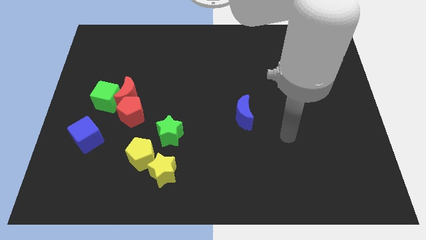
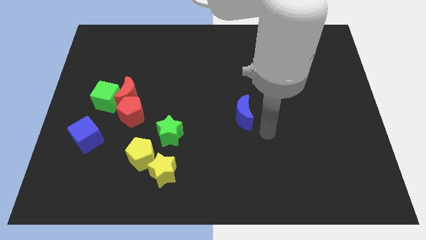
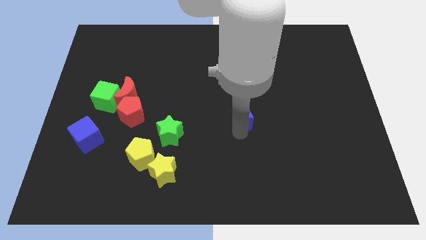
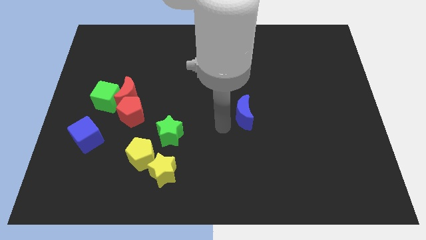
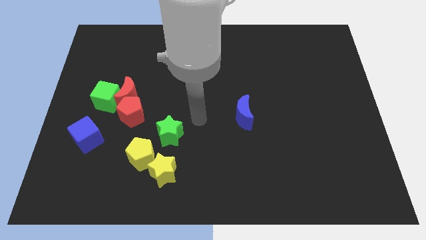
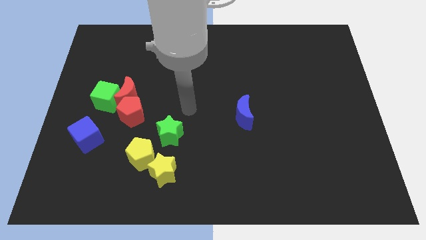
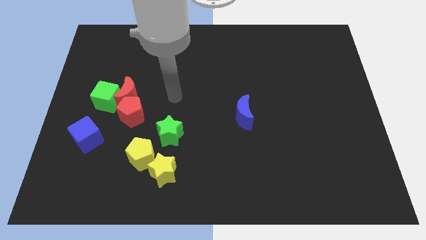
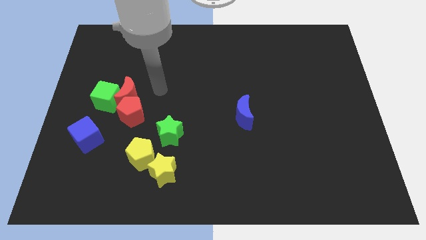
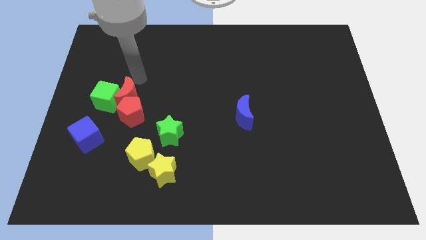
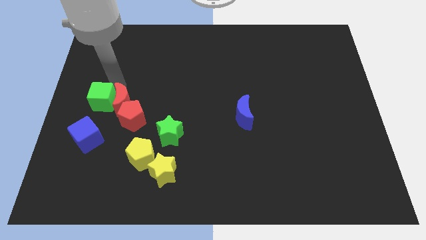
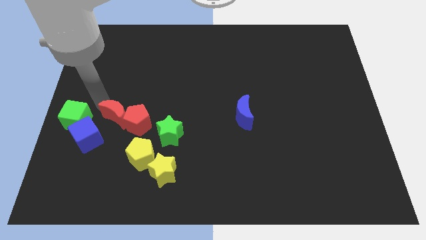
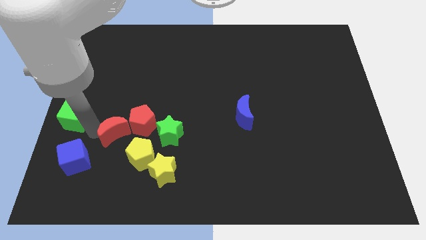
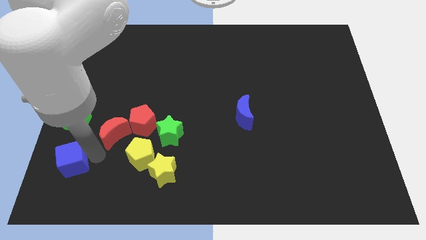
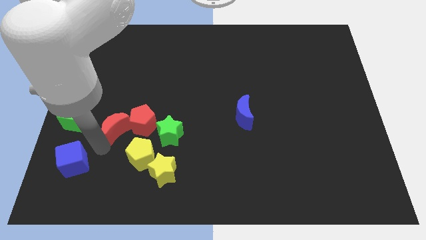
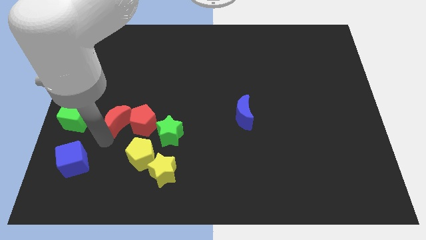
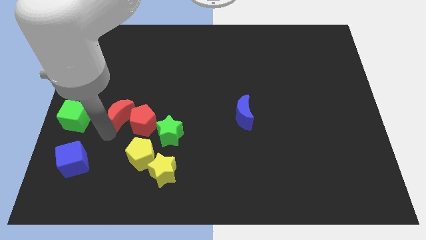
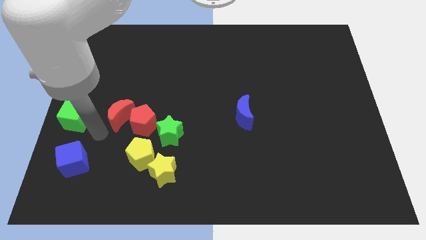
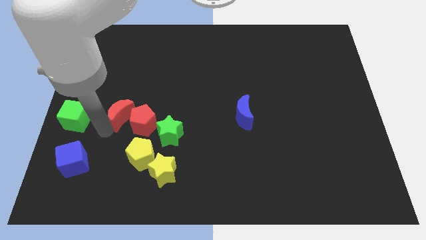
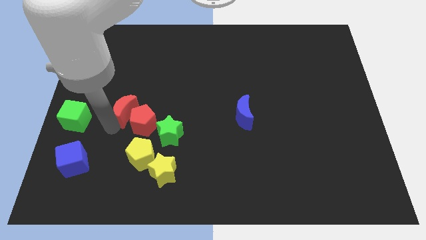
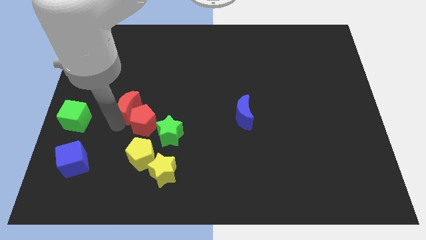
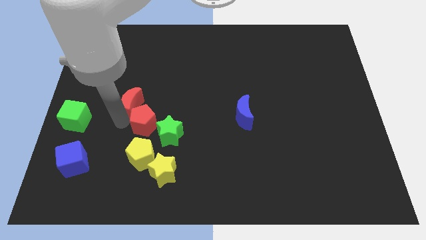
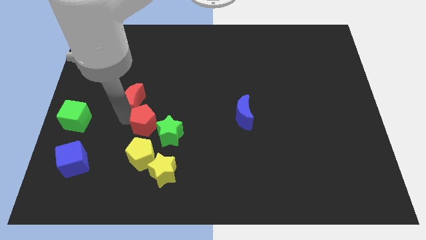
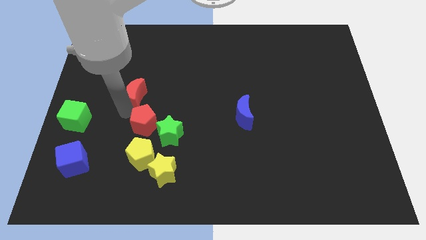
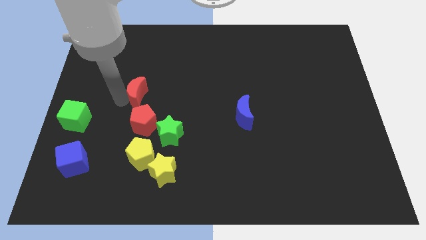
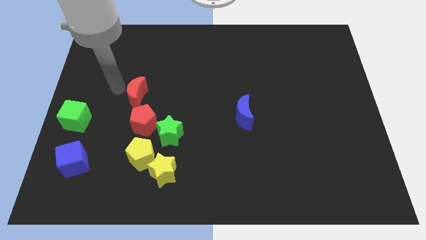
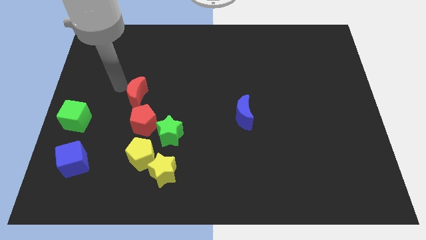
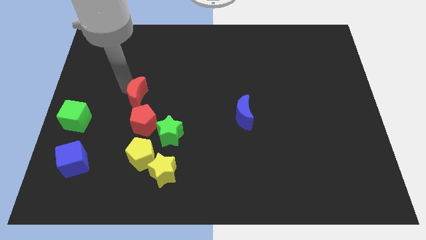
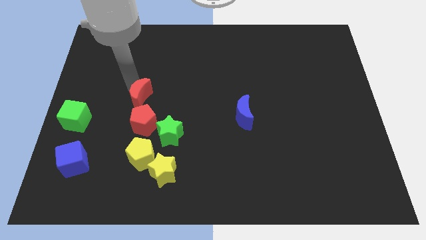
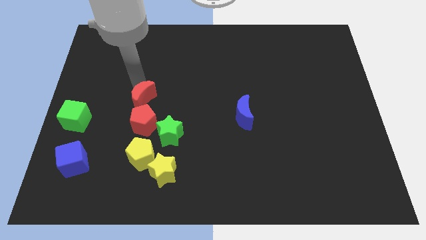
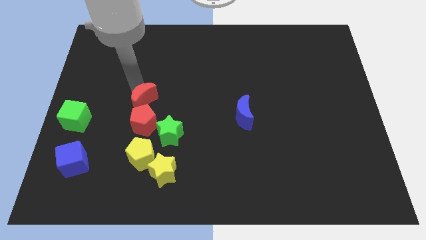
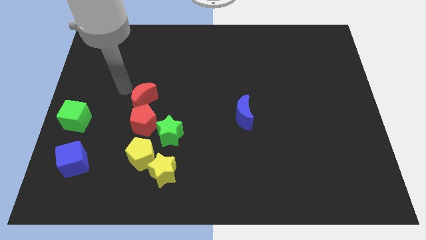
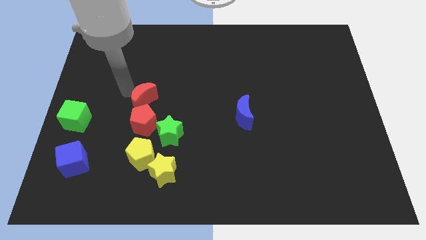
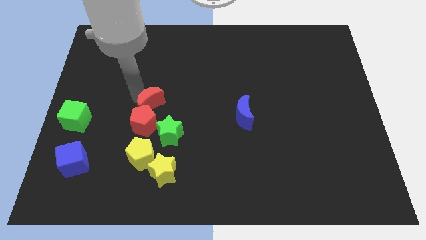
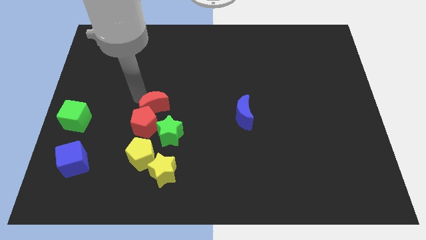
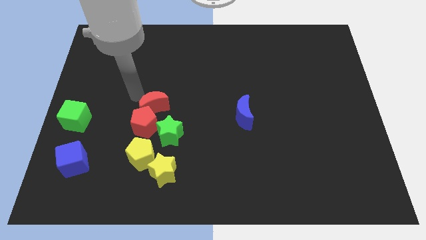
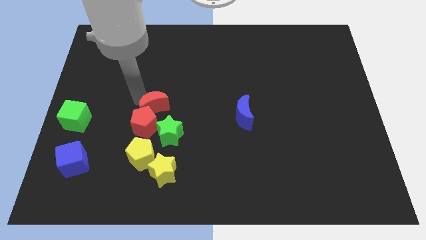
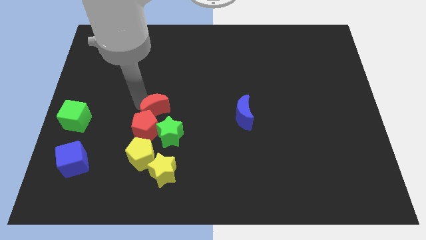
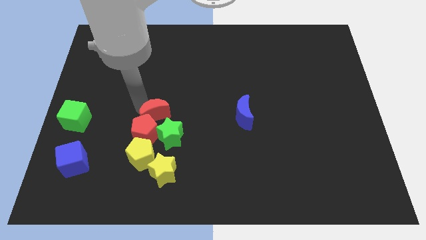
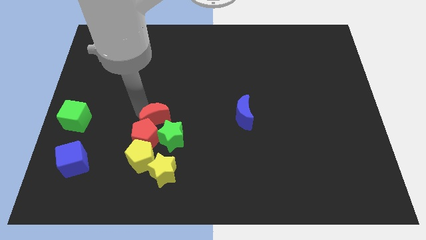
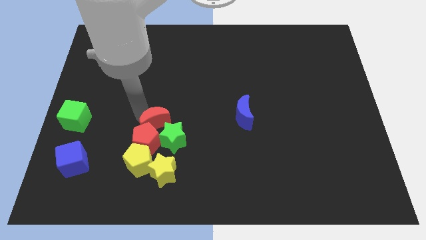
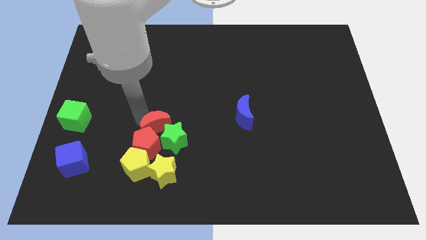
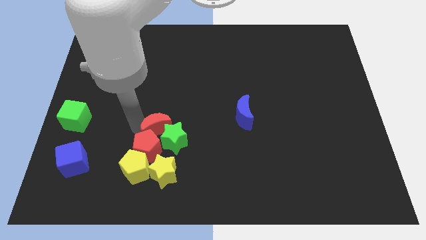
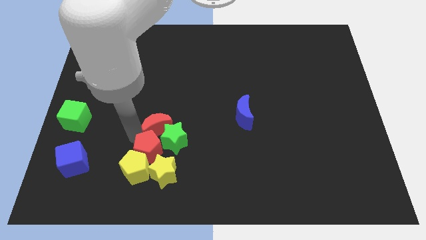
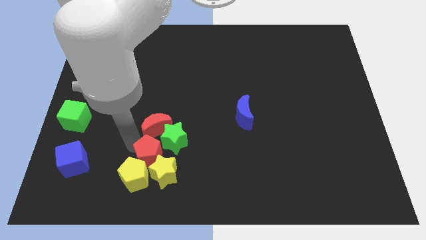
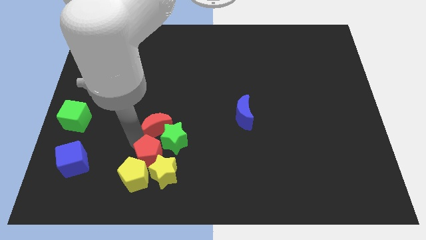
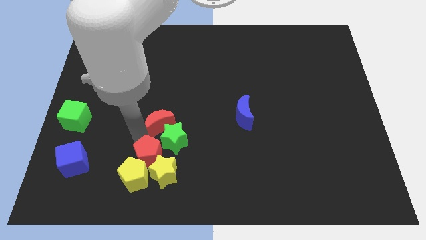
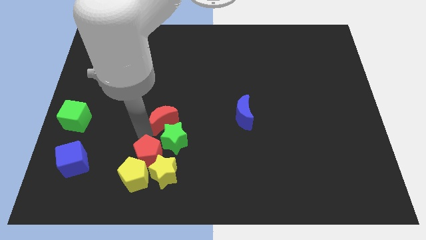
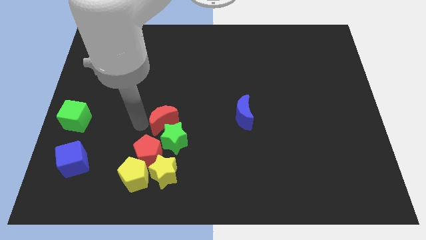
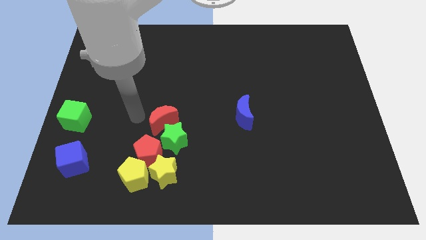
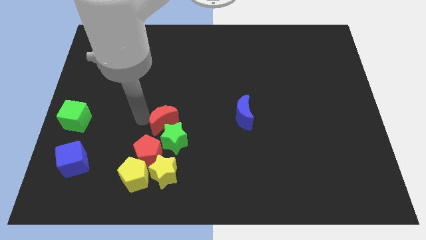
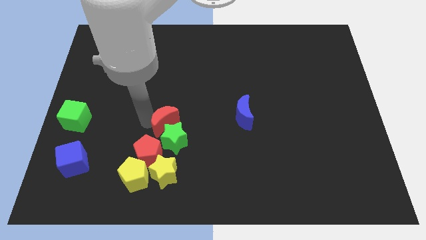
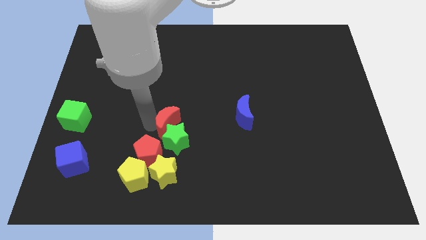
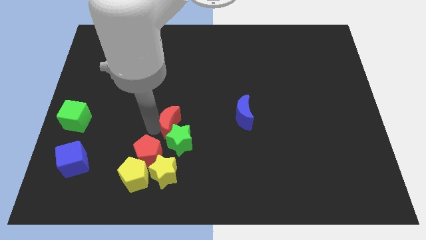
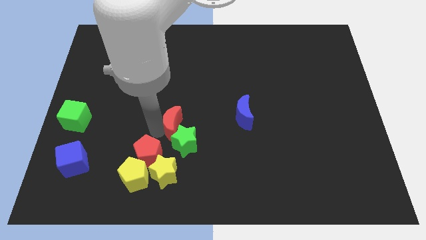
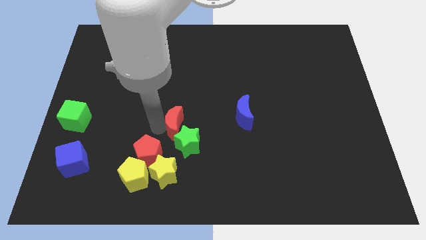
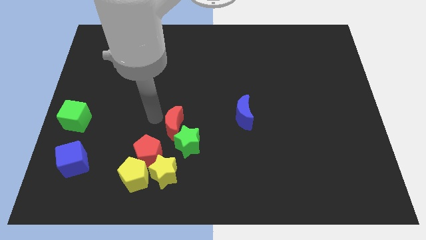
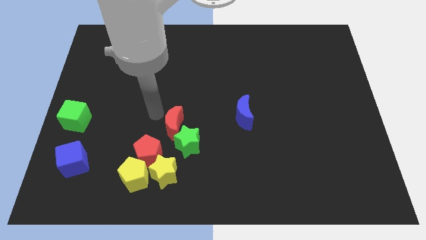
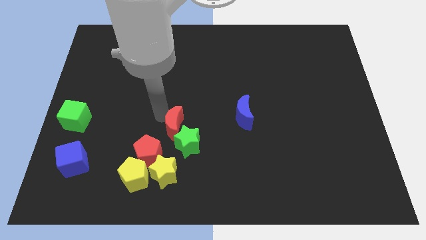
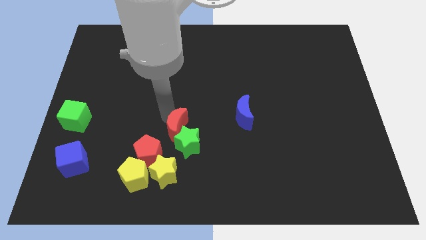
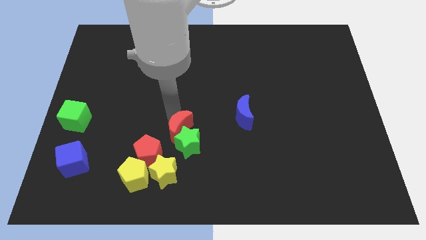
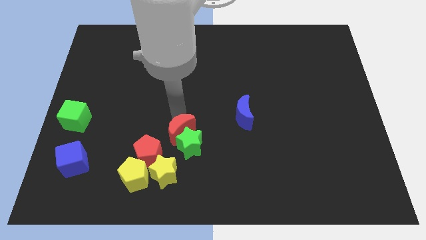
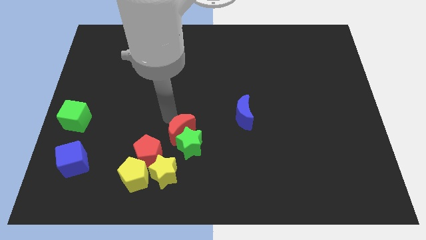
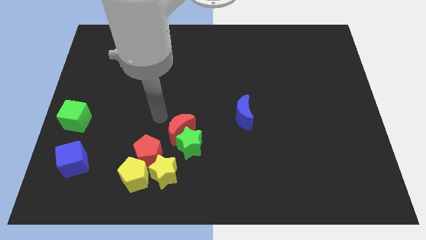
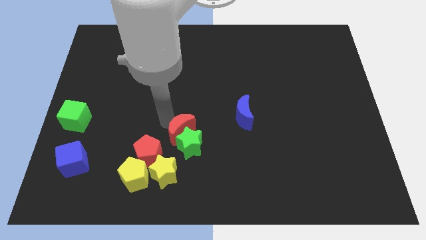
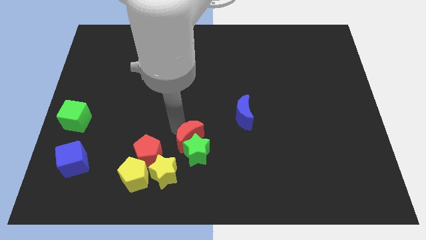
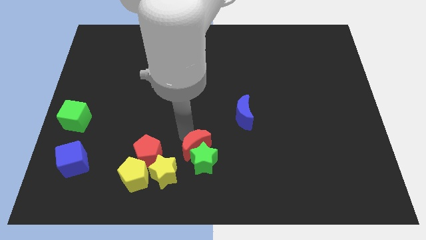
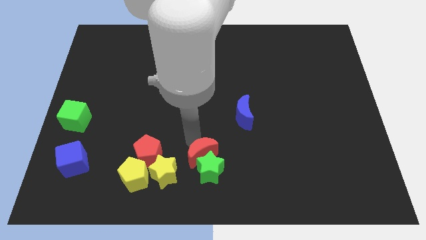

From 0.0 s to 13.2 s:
push the red moon to the bottom
